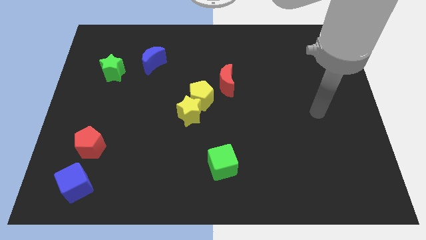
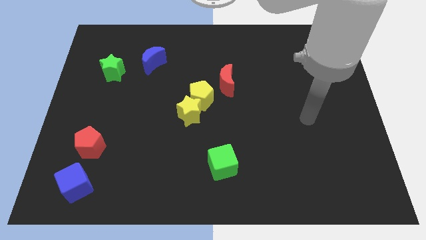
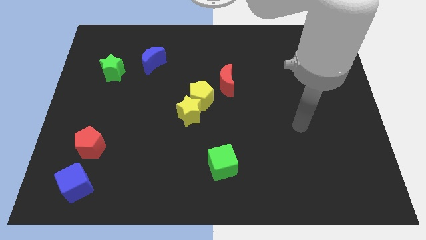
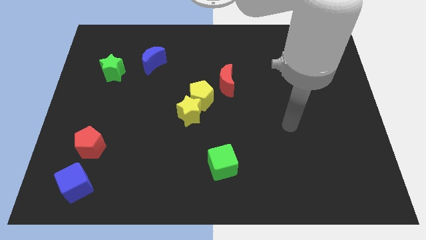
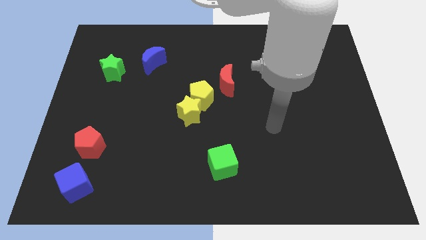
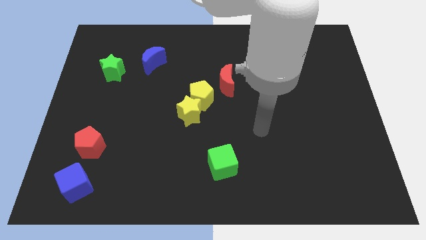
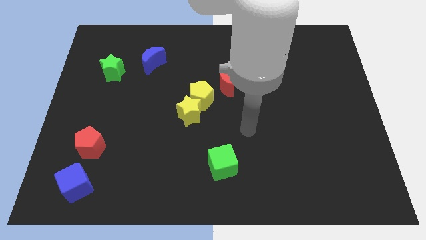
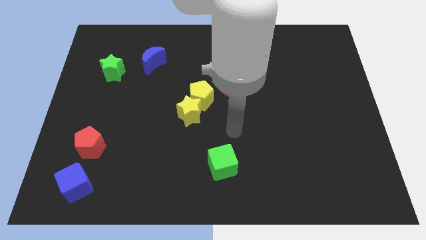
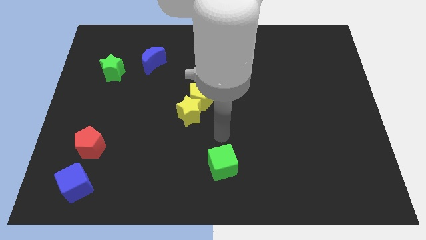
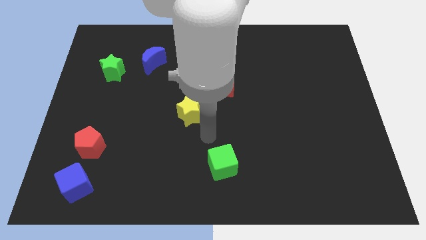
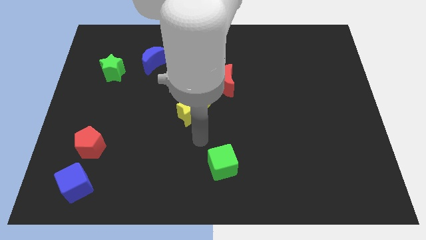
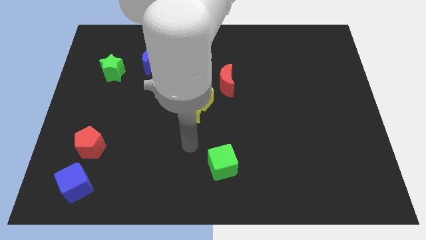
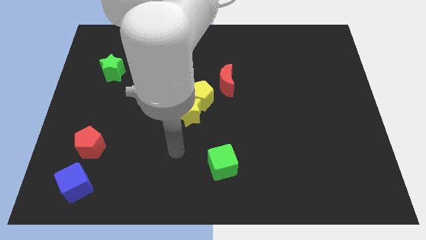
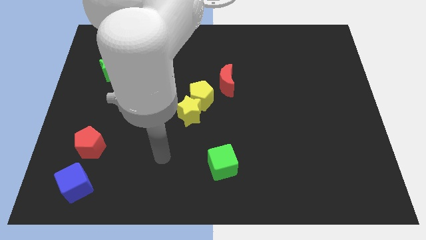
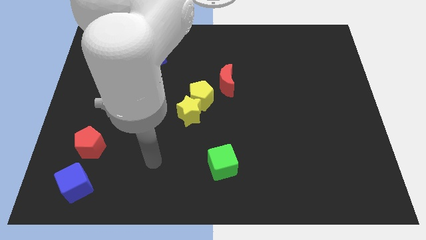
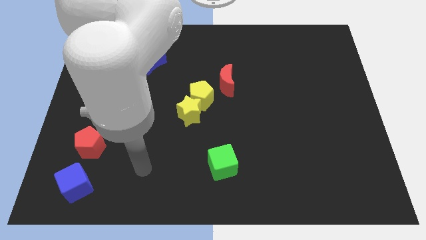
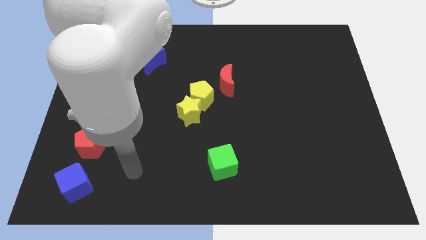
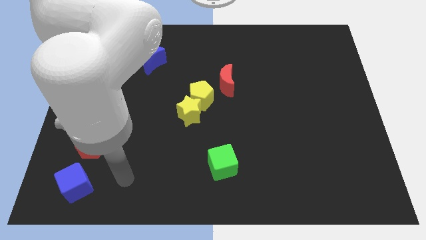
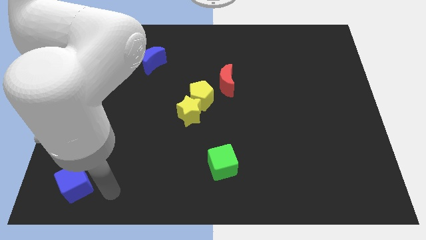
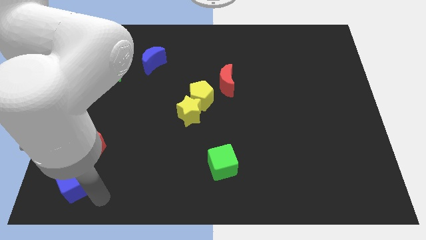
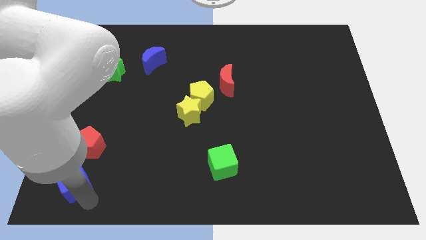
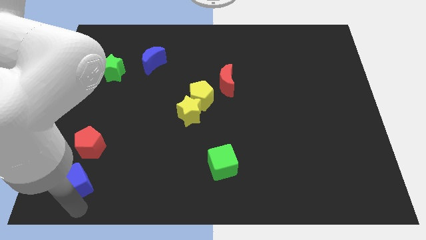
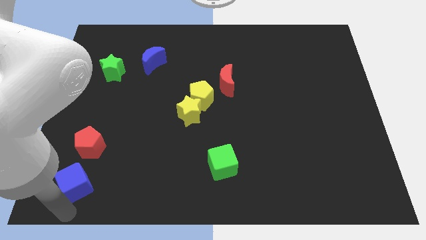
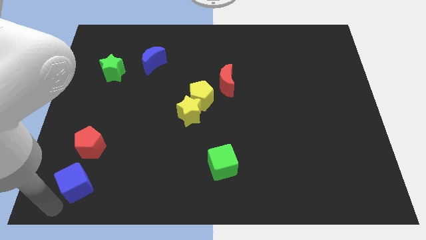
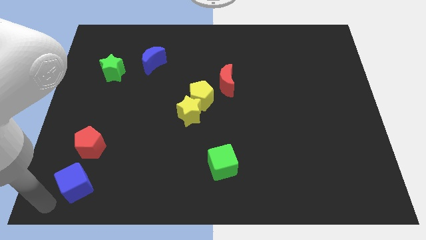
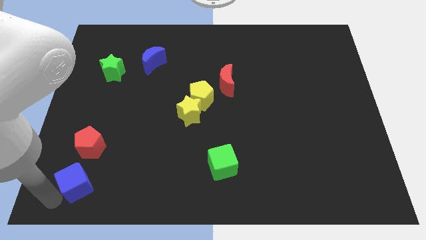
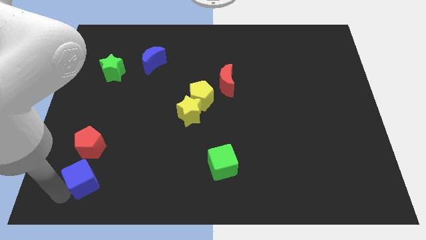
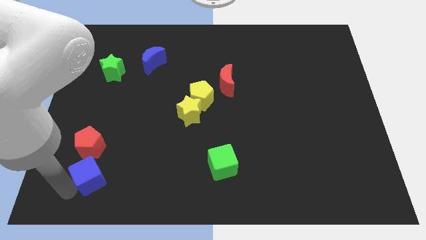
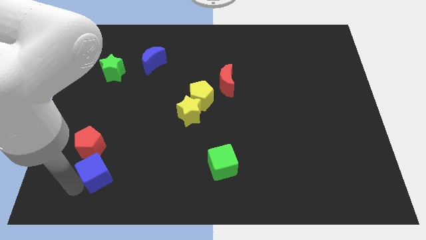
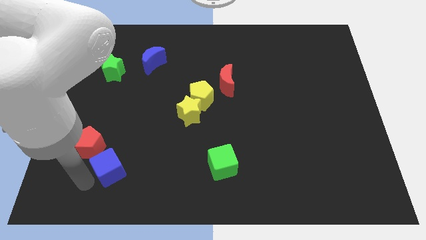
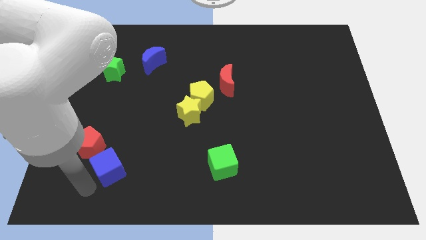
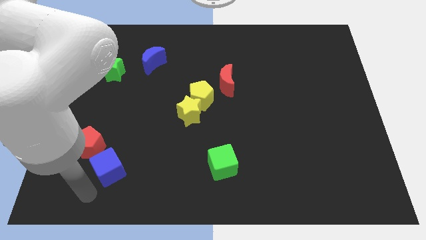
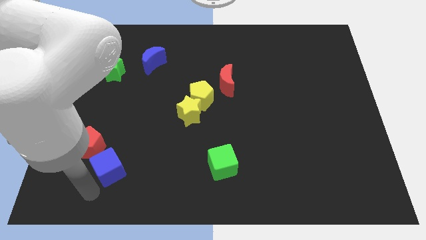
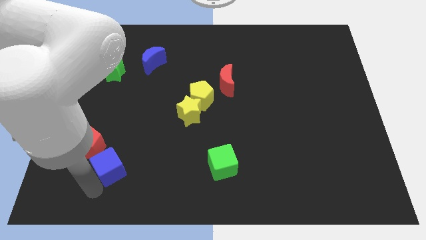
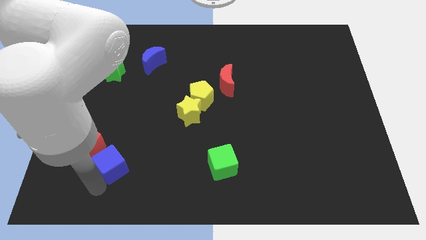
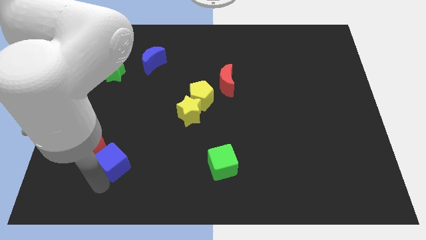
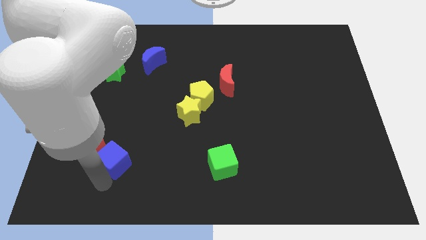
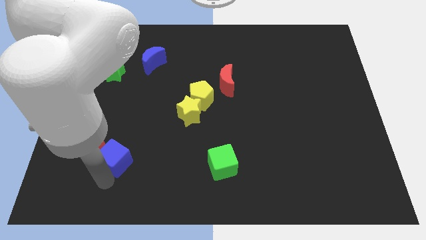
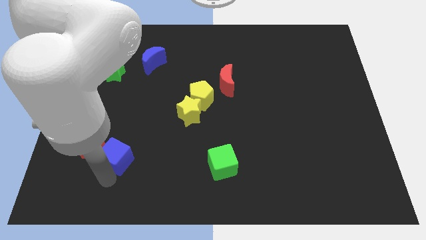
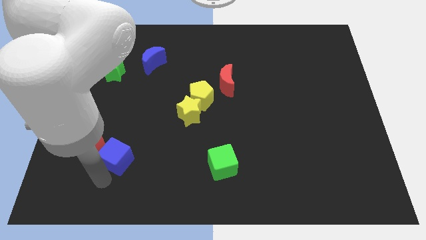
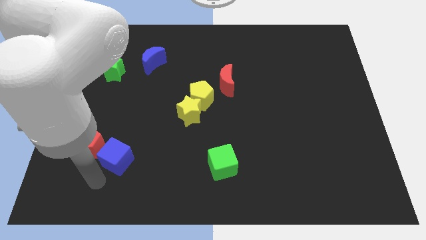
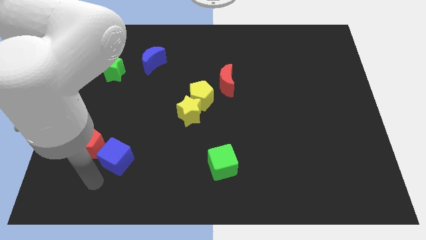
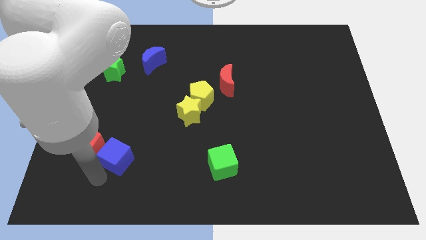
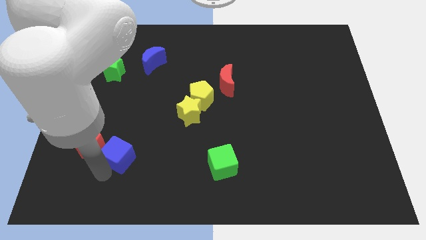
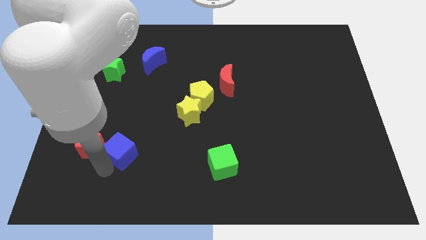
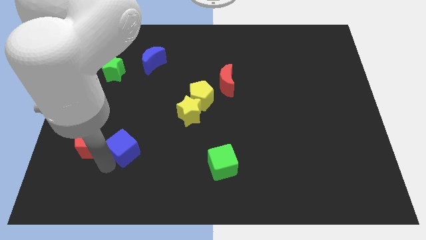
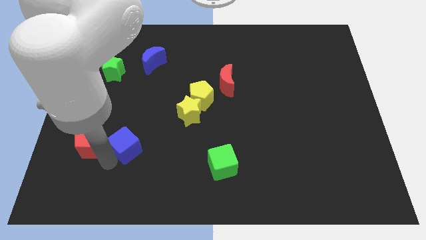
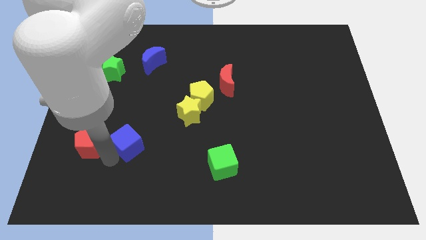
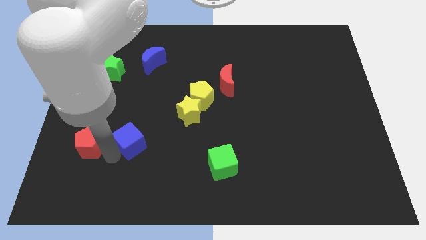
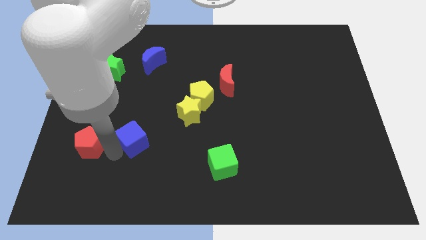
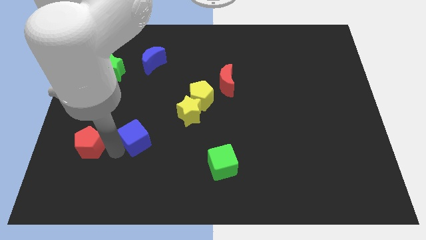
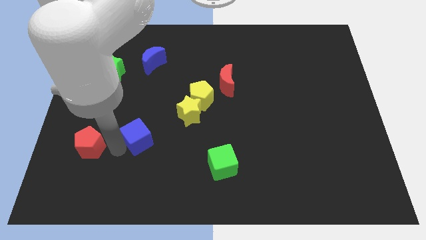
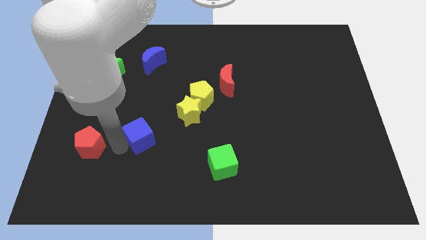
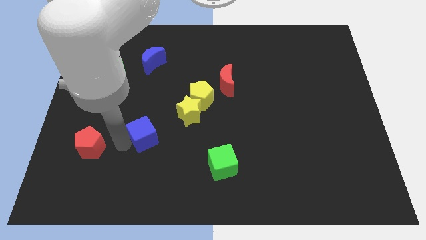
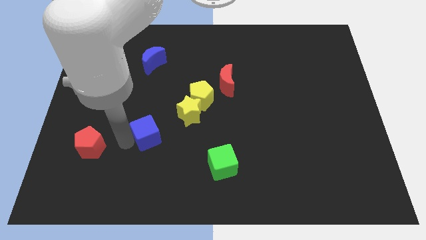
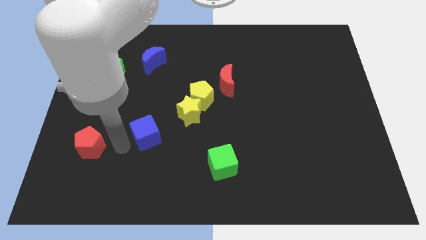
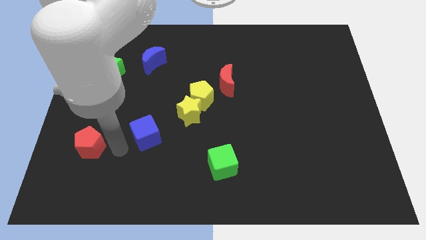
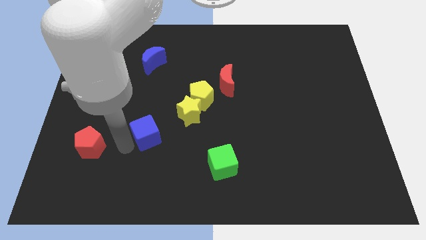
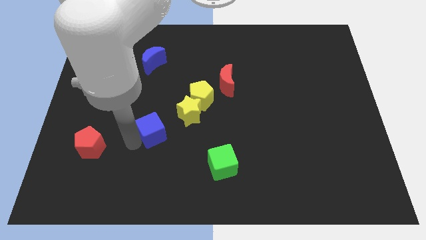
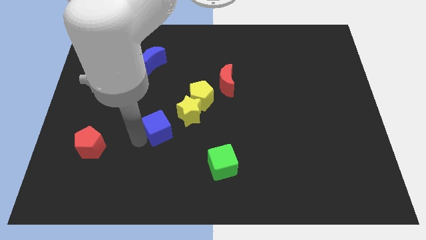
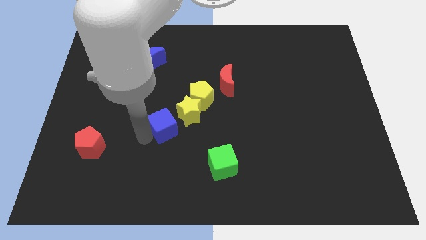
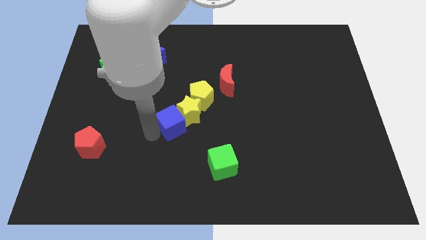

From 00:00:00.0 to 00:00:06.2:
move the blue cube next to the yellow star
